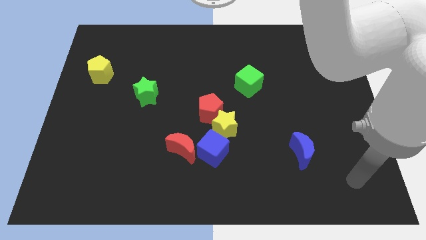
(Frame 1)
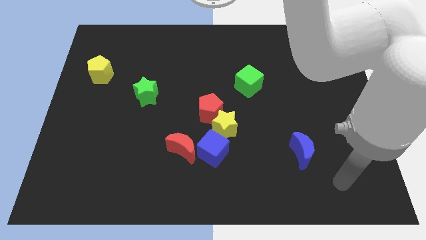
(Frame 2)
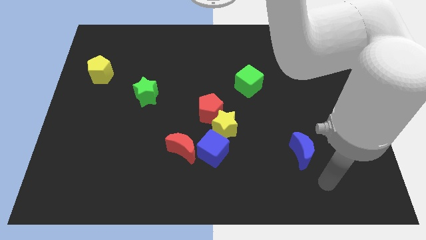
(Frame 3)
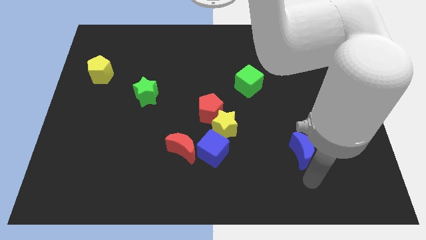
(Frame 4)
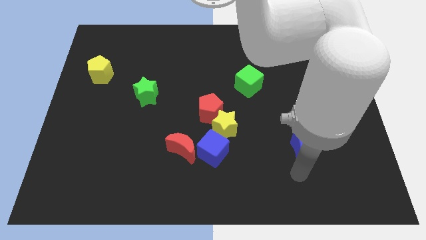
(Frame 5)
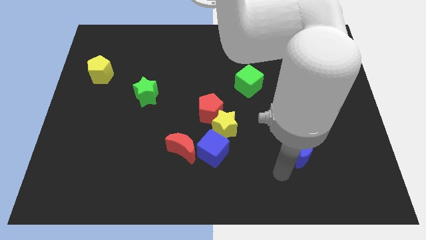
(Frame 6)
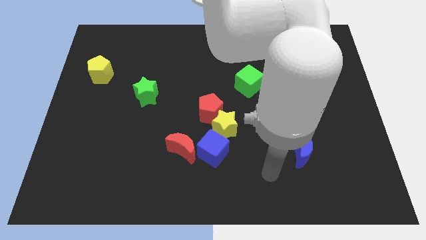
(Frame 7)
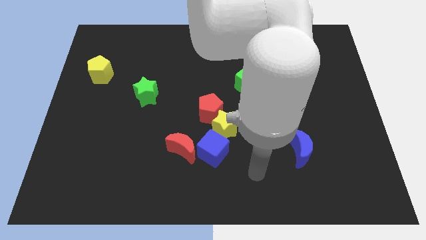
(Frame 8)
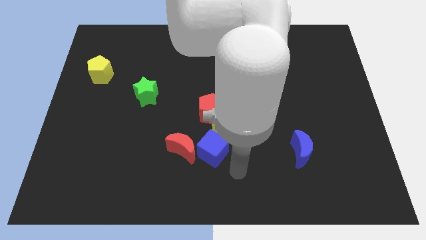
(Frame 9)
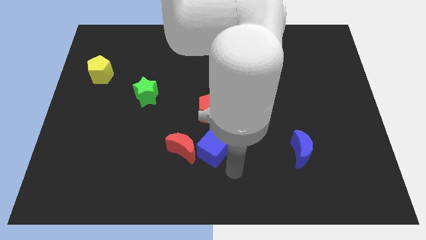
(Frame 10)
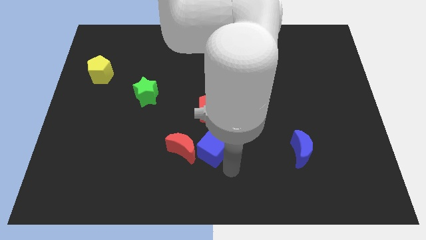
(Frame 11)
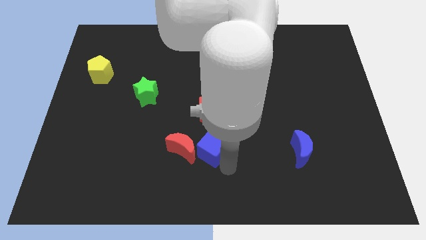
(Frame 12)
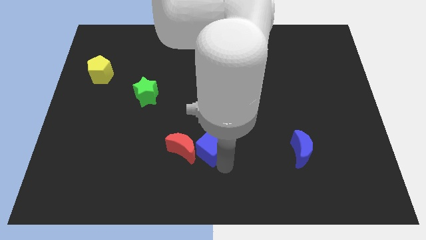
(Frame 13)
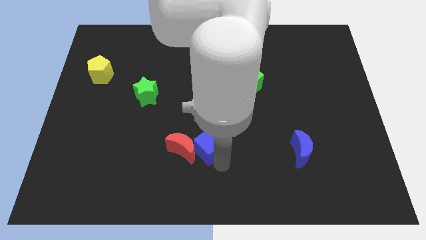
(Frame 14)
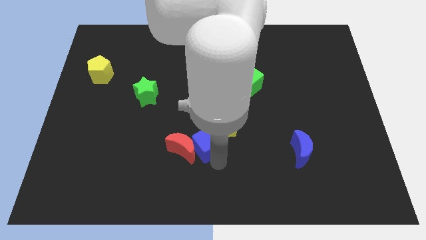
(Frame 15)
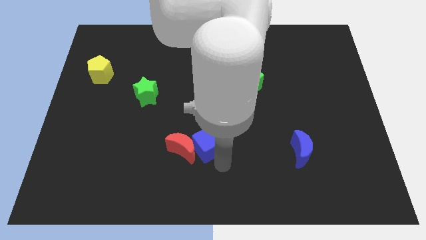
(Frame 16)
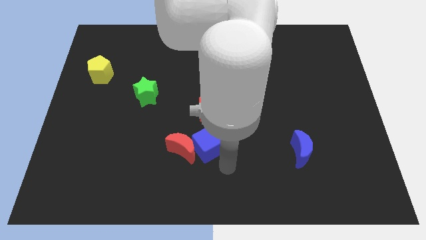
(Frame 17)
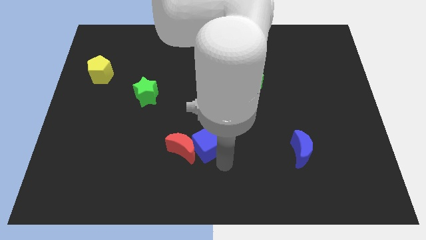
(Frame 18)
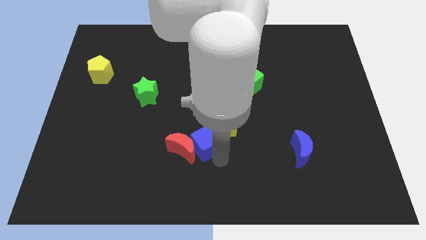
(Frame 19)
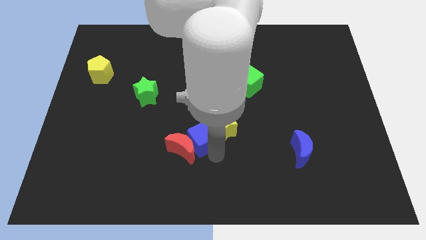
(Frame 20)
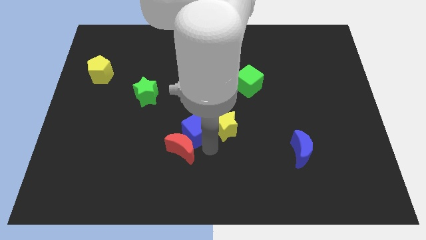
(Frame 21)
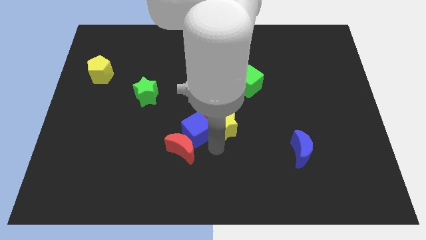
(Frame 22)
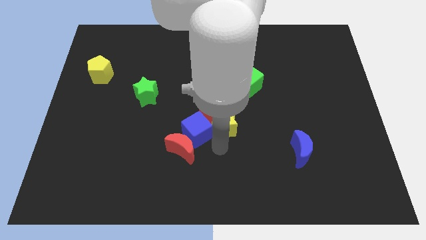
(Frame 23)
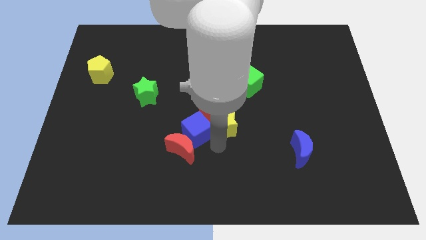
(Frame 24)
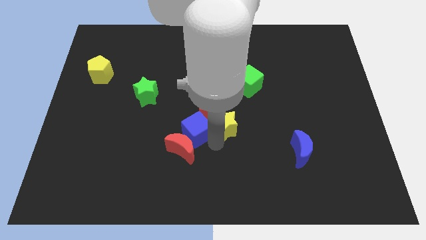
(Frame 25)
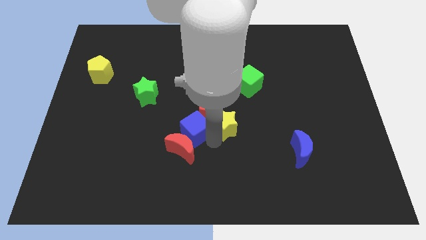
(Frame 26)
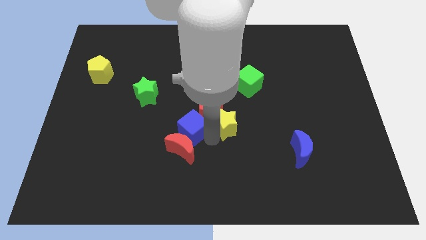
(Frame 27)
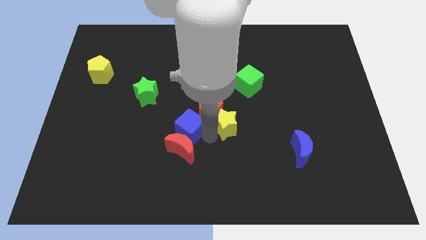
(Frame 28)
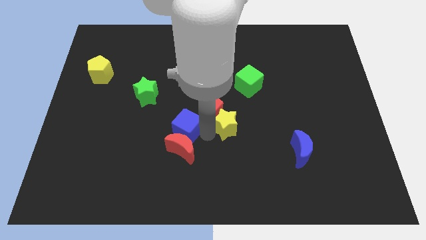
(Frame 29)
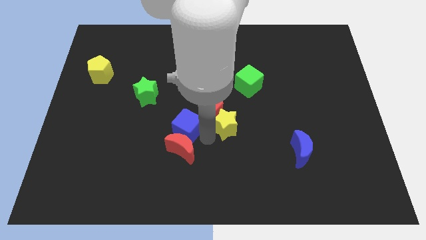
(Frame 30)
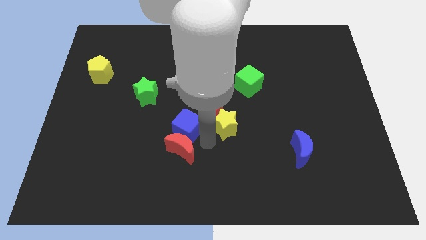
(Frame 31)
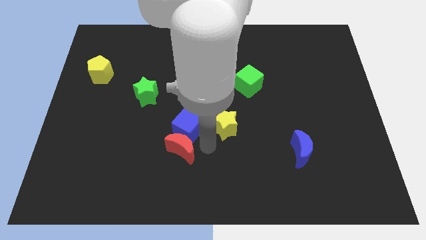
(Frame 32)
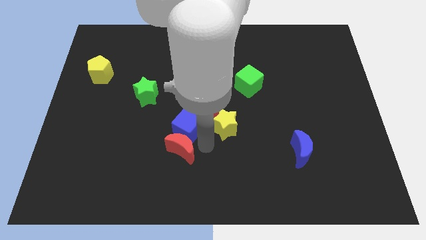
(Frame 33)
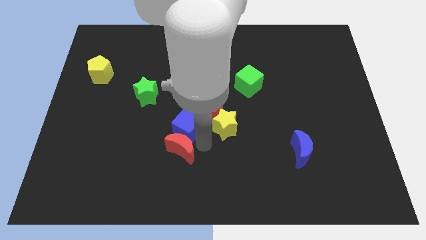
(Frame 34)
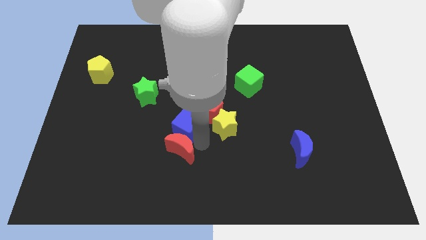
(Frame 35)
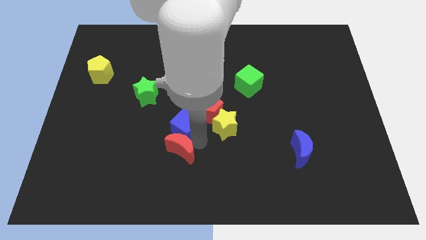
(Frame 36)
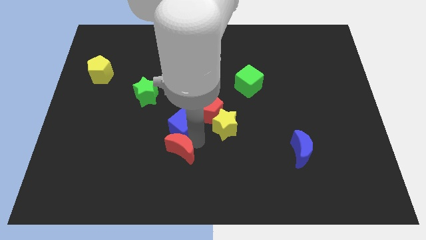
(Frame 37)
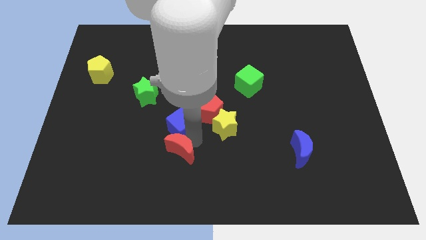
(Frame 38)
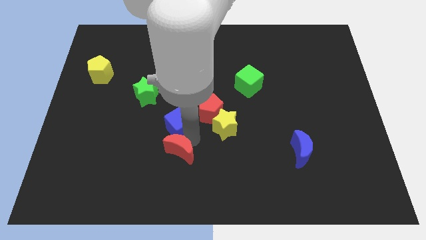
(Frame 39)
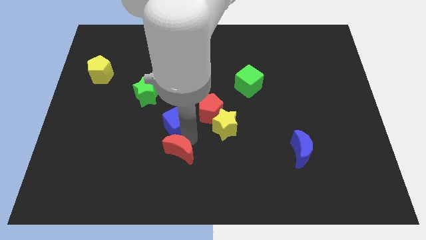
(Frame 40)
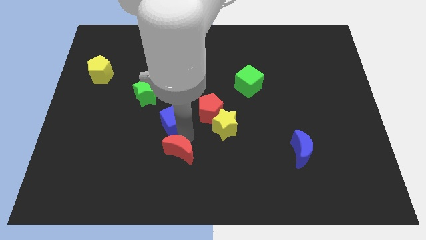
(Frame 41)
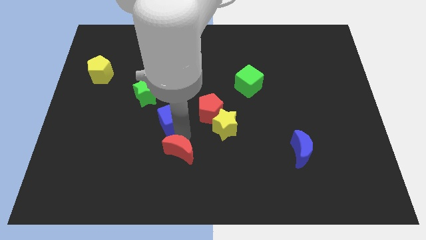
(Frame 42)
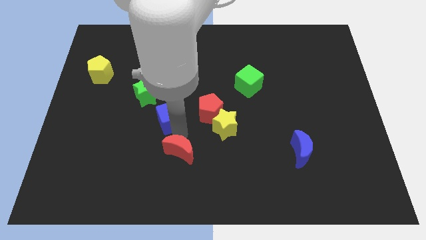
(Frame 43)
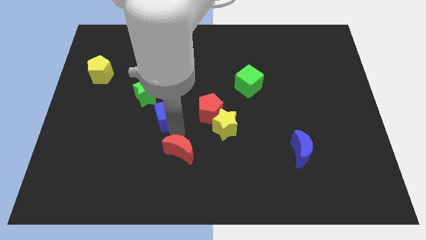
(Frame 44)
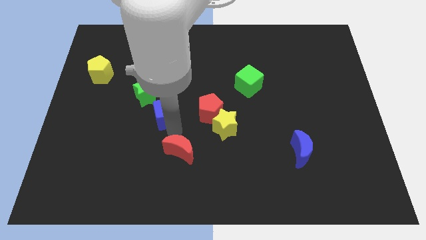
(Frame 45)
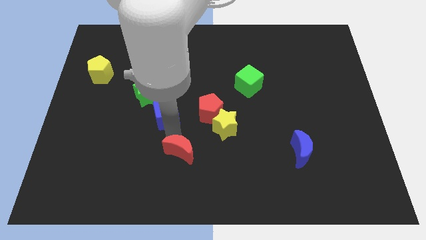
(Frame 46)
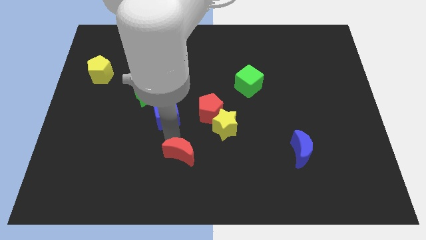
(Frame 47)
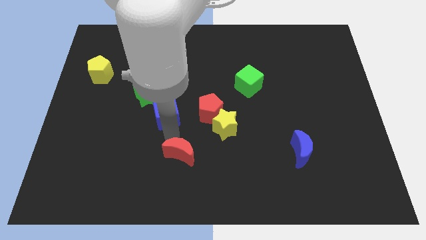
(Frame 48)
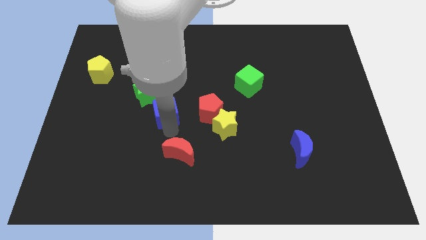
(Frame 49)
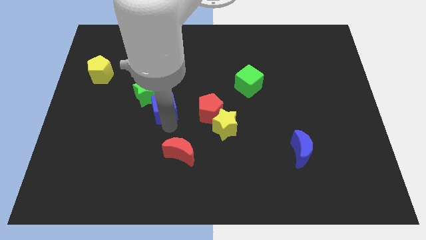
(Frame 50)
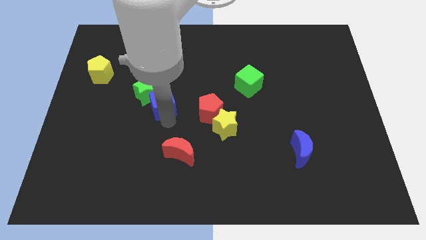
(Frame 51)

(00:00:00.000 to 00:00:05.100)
slide the blue cube towards the green star

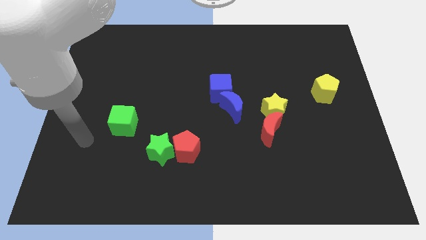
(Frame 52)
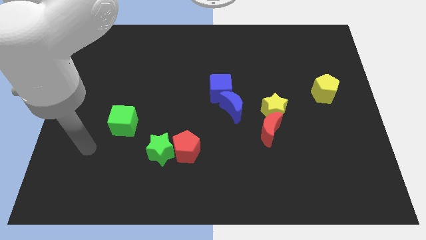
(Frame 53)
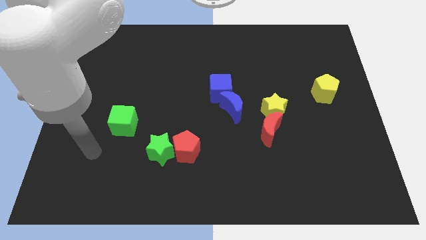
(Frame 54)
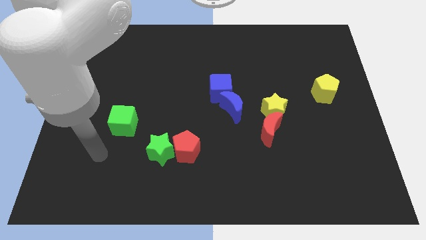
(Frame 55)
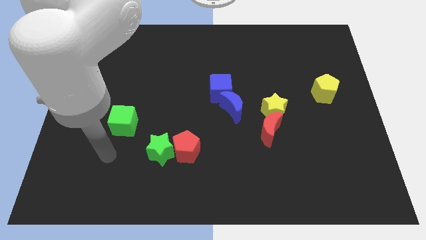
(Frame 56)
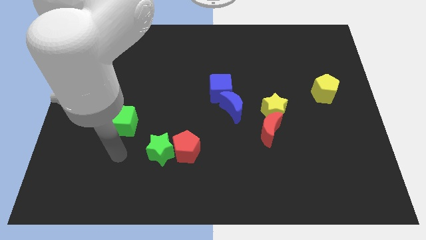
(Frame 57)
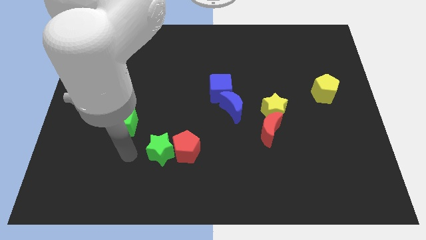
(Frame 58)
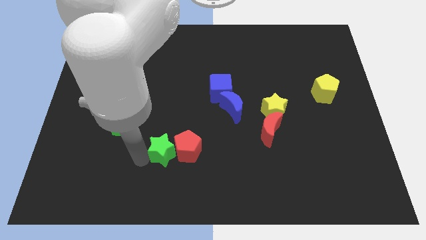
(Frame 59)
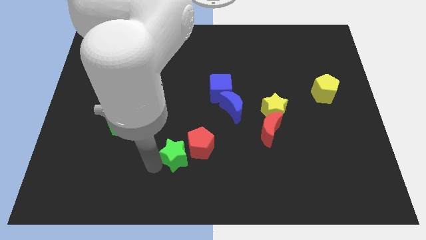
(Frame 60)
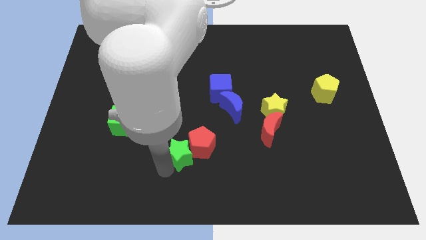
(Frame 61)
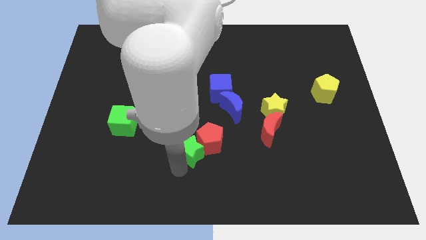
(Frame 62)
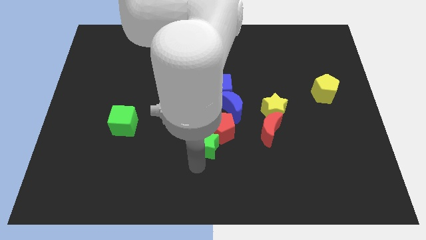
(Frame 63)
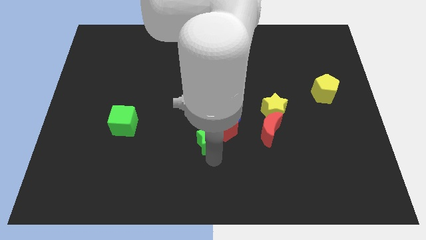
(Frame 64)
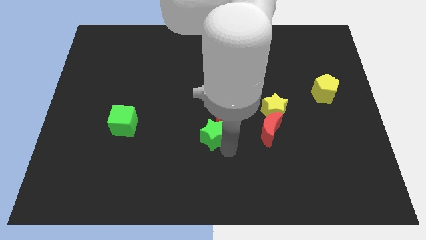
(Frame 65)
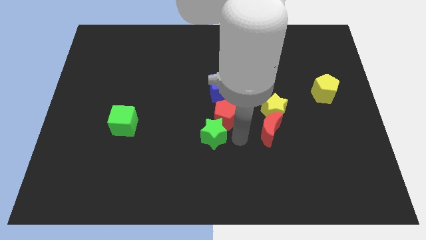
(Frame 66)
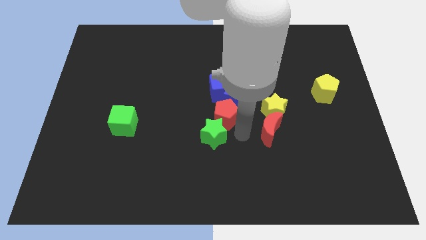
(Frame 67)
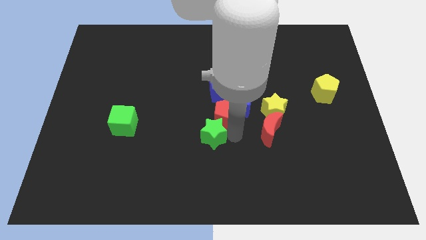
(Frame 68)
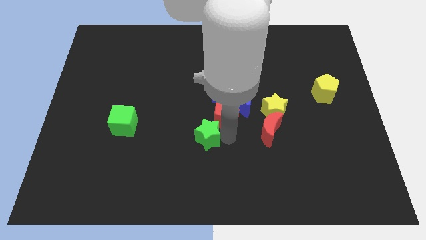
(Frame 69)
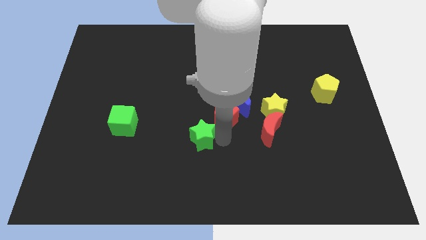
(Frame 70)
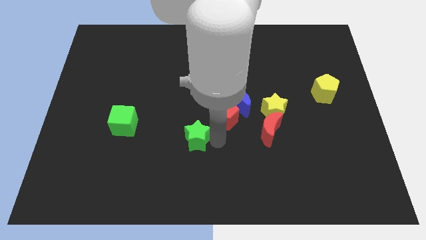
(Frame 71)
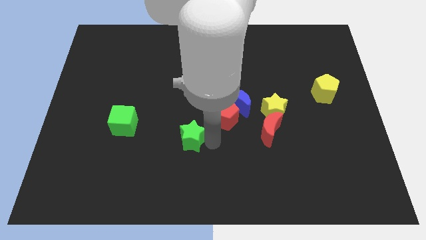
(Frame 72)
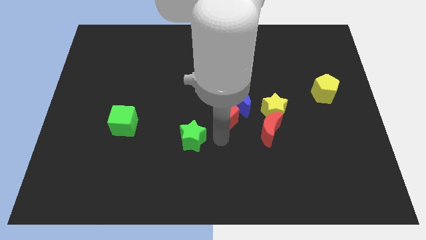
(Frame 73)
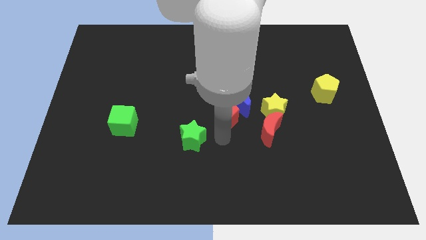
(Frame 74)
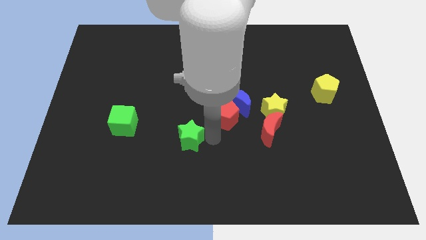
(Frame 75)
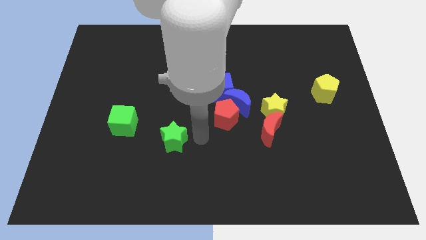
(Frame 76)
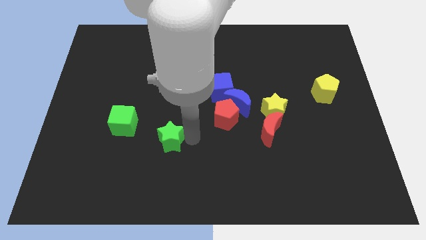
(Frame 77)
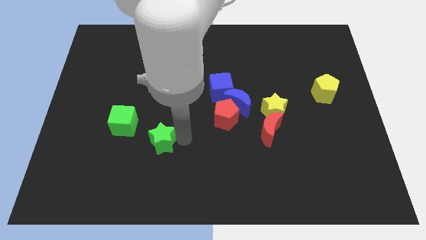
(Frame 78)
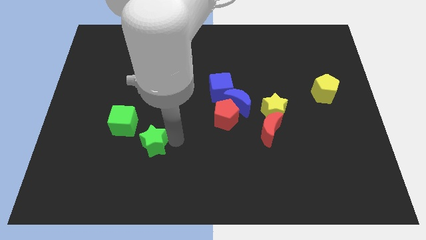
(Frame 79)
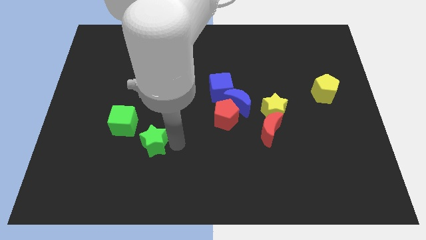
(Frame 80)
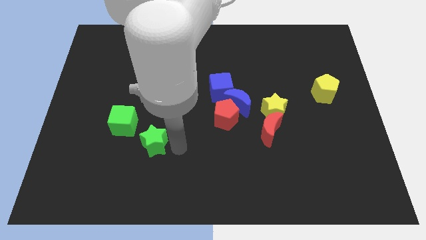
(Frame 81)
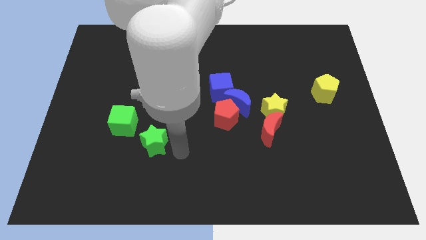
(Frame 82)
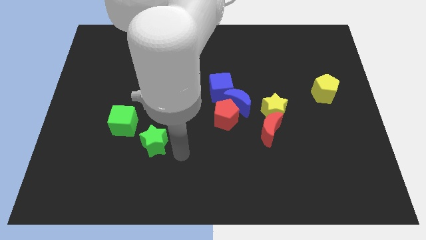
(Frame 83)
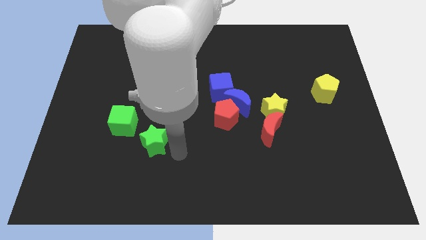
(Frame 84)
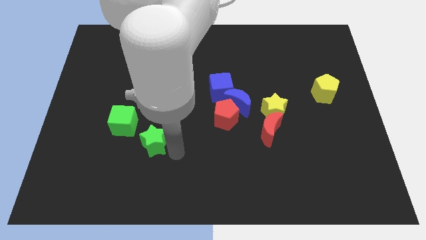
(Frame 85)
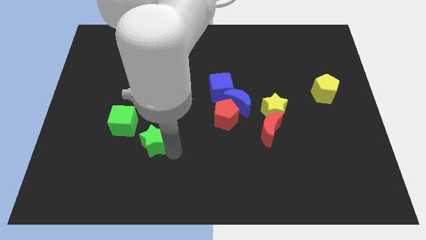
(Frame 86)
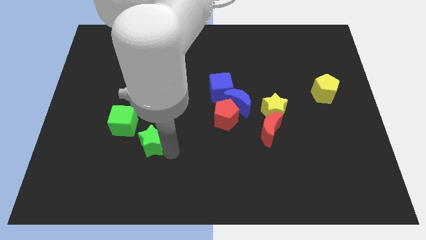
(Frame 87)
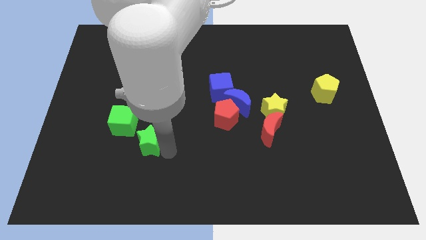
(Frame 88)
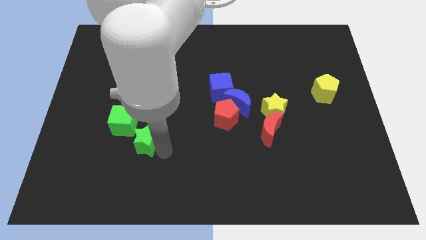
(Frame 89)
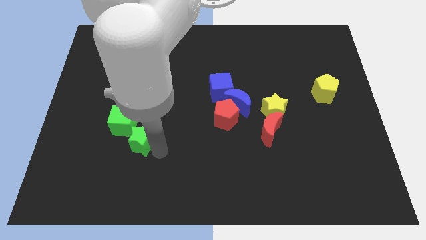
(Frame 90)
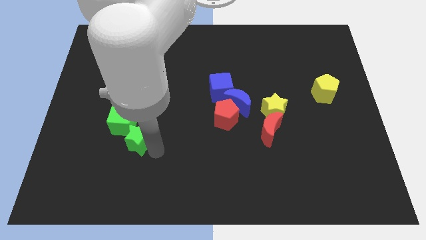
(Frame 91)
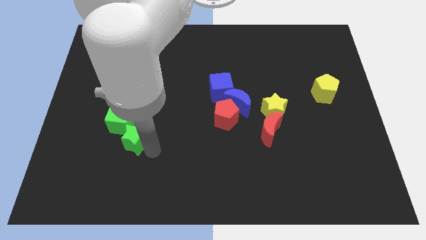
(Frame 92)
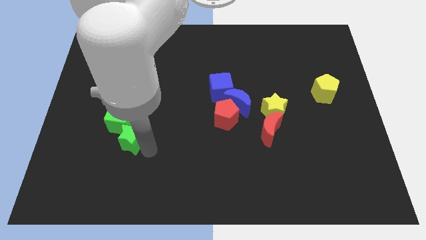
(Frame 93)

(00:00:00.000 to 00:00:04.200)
move the green star close to the green cube
